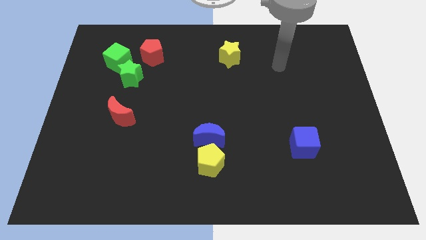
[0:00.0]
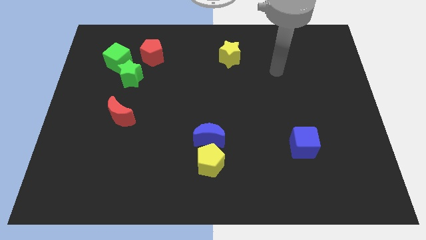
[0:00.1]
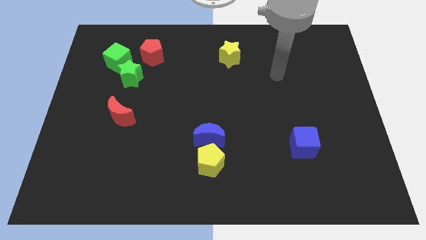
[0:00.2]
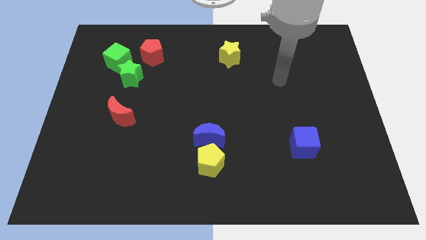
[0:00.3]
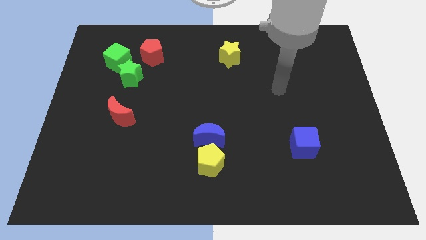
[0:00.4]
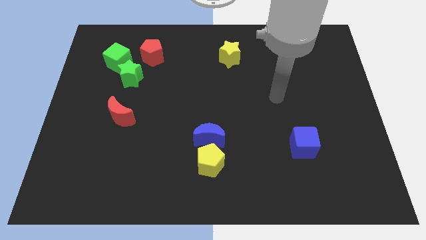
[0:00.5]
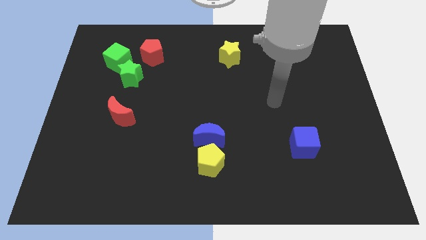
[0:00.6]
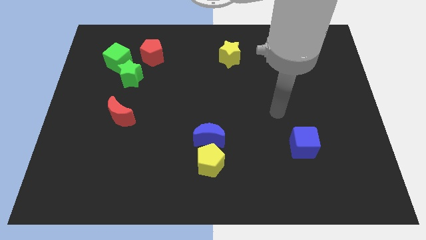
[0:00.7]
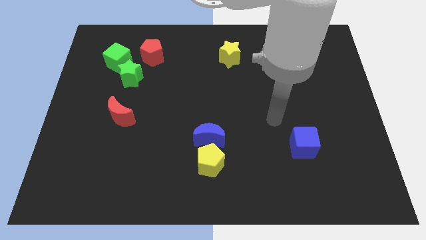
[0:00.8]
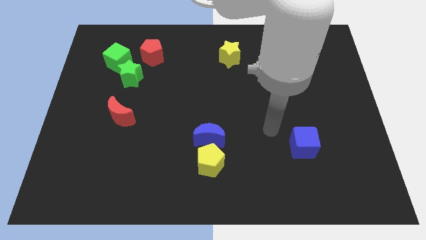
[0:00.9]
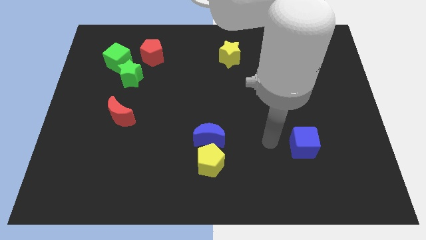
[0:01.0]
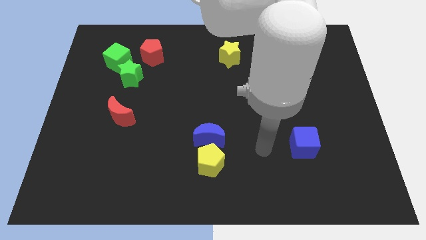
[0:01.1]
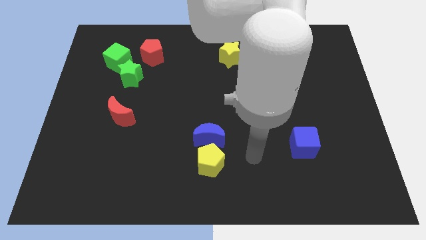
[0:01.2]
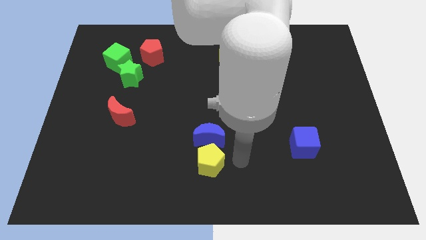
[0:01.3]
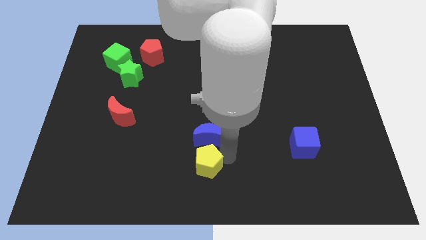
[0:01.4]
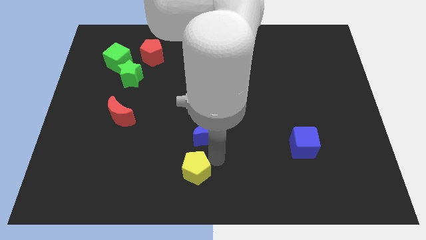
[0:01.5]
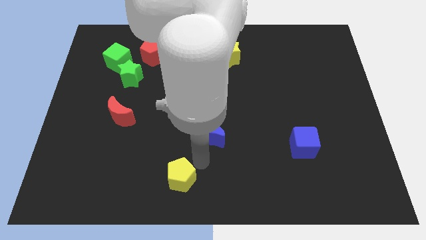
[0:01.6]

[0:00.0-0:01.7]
separate the blue moon from the yellow pentagon

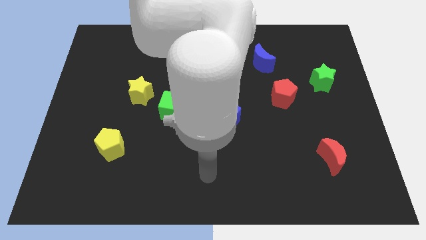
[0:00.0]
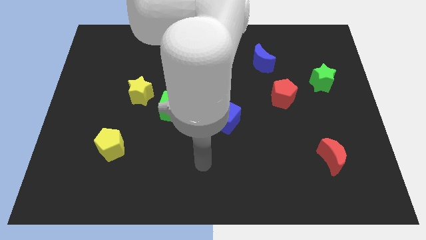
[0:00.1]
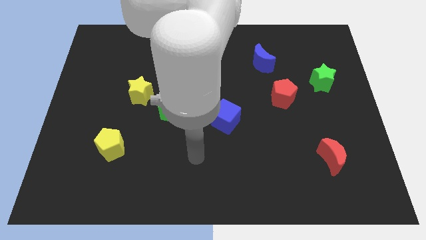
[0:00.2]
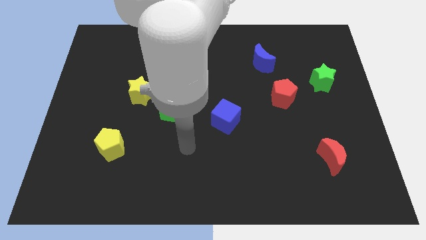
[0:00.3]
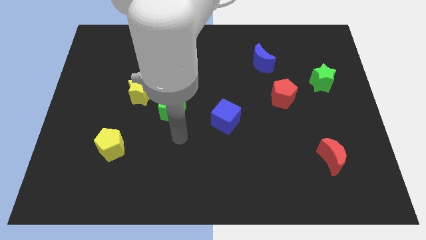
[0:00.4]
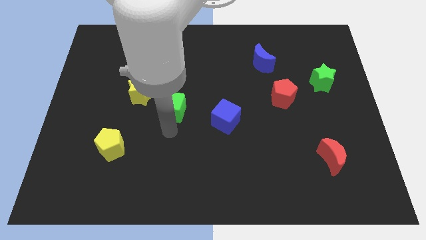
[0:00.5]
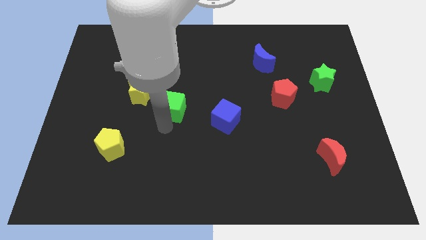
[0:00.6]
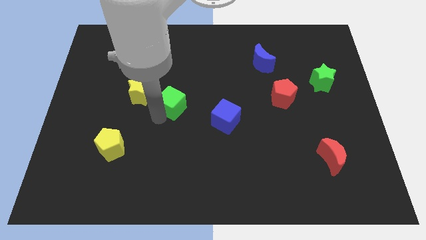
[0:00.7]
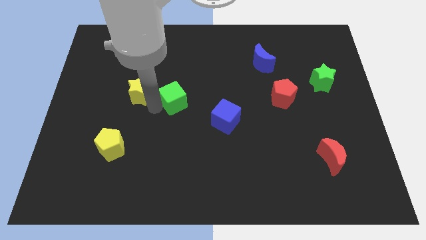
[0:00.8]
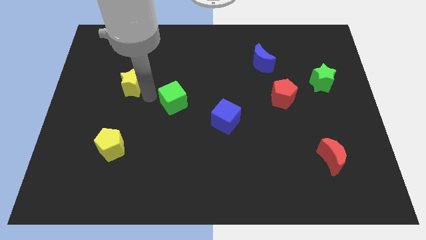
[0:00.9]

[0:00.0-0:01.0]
pull the green cube apart from the yellow star

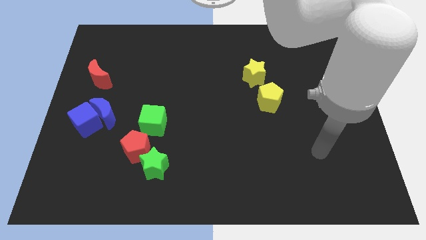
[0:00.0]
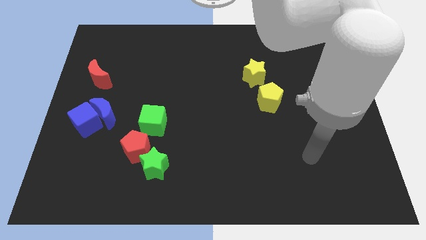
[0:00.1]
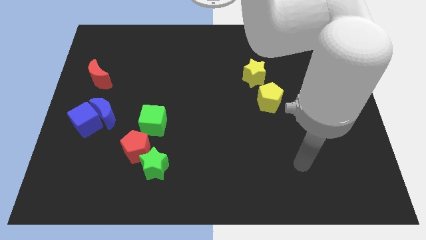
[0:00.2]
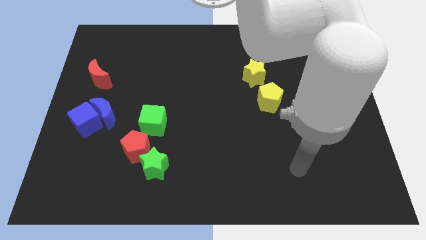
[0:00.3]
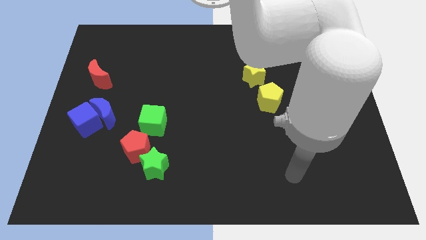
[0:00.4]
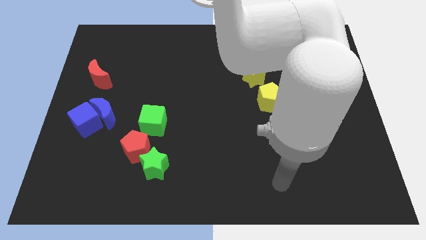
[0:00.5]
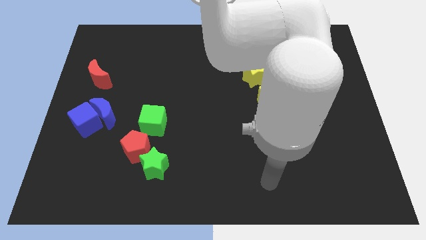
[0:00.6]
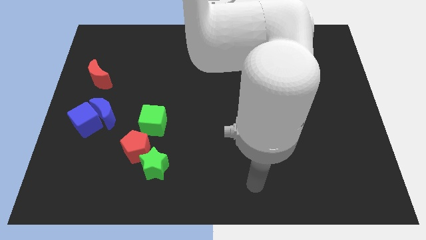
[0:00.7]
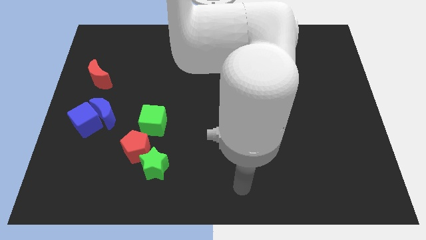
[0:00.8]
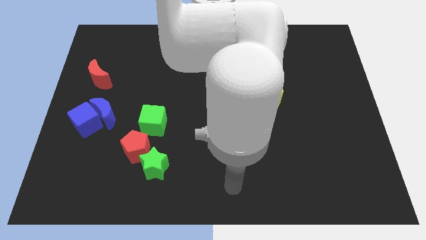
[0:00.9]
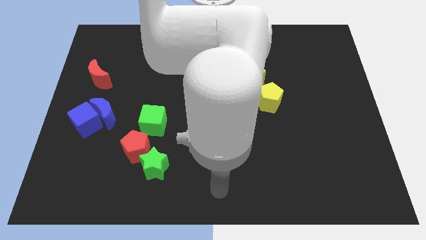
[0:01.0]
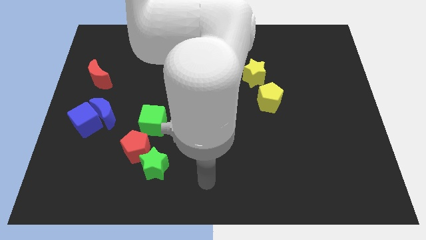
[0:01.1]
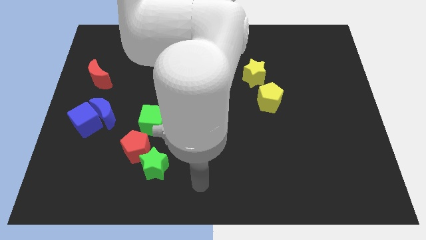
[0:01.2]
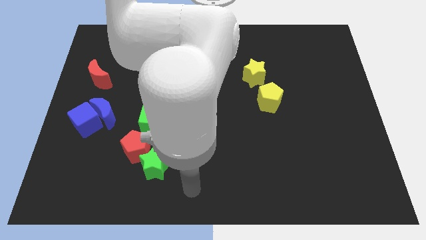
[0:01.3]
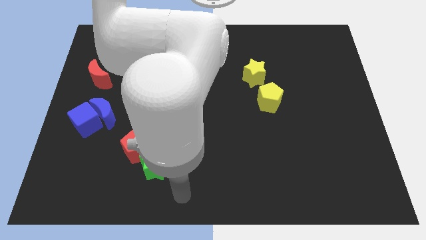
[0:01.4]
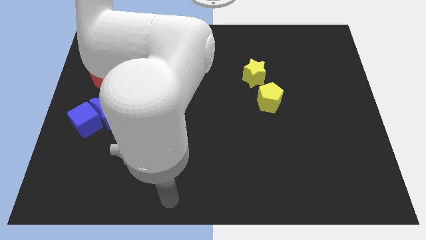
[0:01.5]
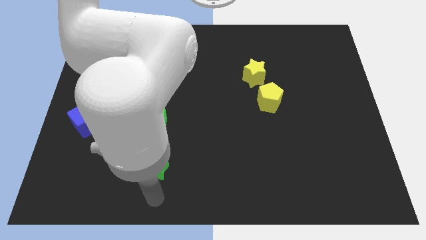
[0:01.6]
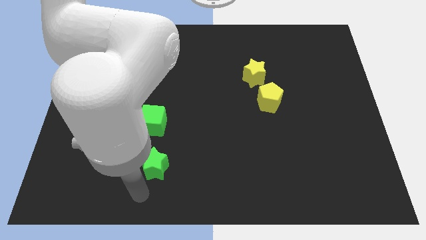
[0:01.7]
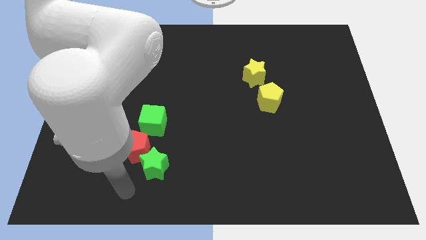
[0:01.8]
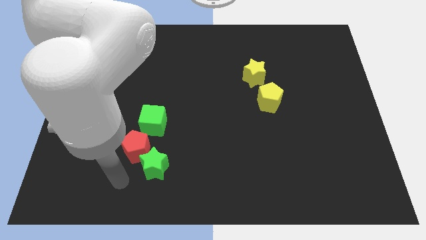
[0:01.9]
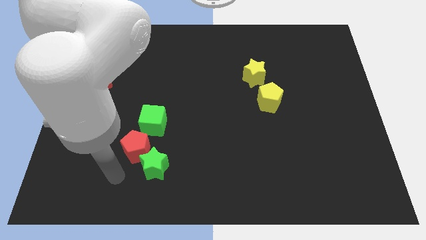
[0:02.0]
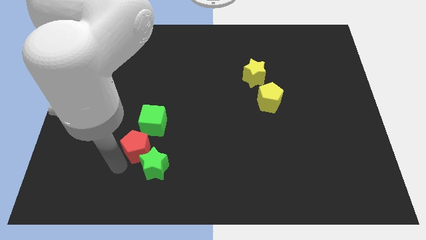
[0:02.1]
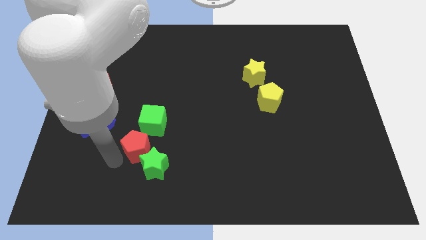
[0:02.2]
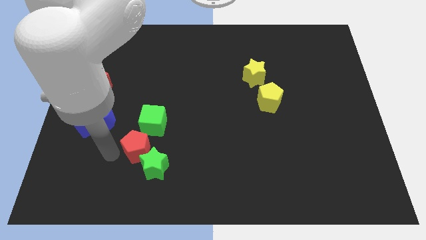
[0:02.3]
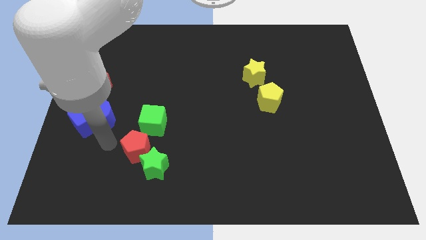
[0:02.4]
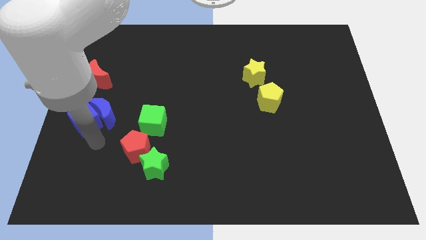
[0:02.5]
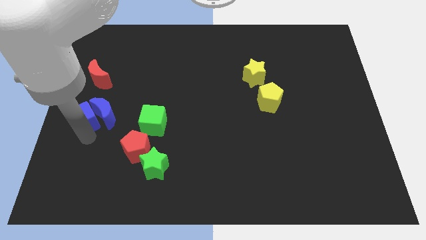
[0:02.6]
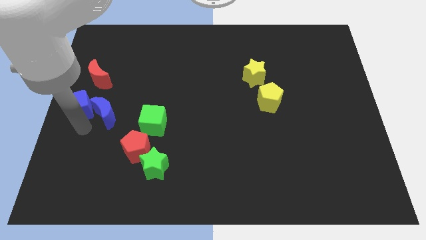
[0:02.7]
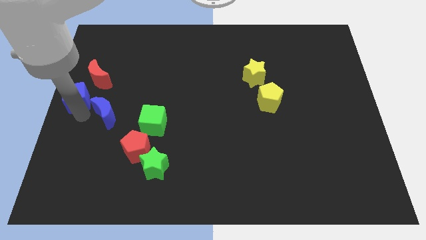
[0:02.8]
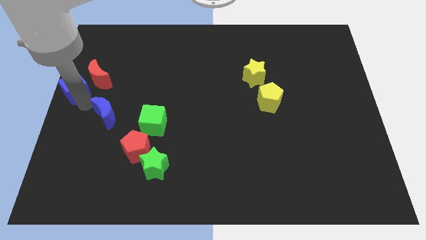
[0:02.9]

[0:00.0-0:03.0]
pull the blue moon apart from the blue cube

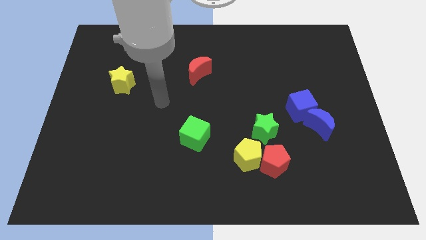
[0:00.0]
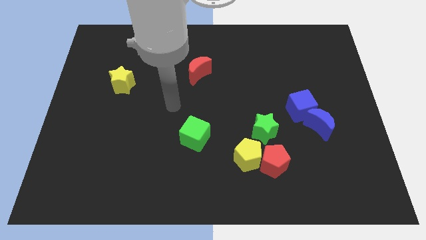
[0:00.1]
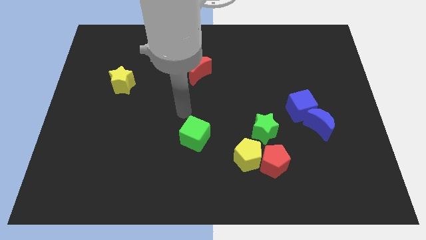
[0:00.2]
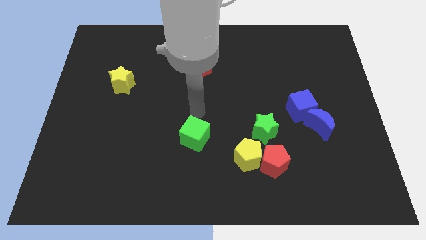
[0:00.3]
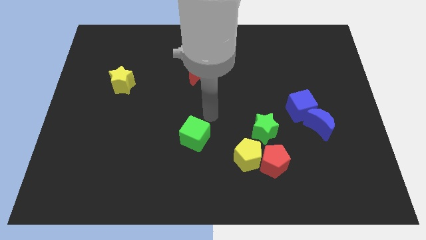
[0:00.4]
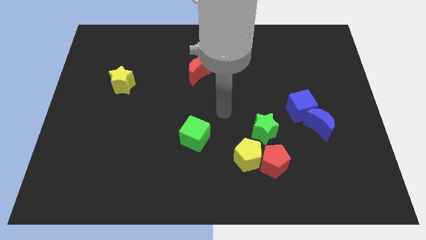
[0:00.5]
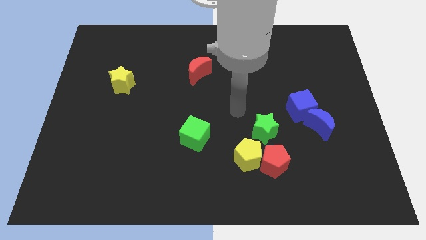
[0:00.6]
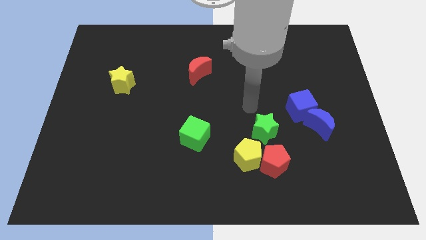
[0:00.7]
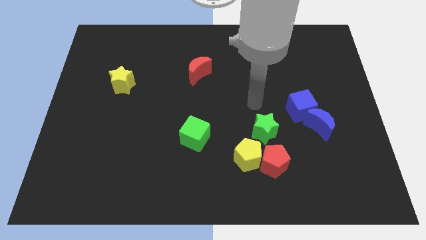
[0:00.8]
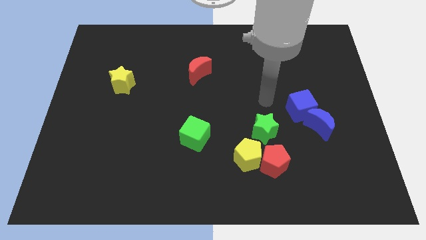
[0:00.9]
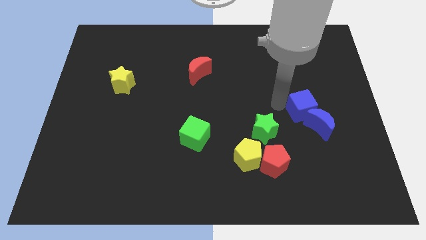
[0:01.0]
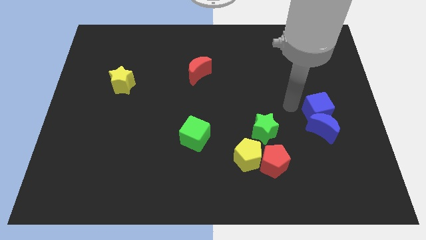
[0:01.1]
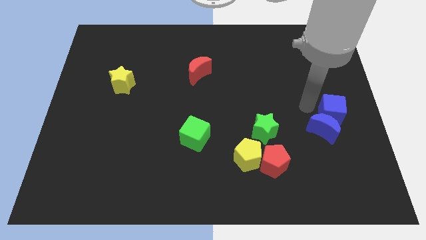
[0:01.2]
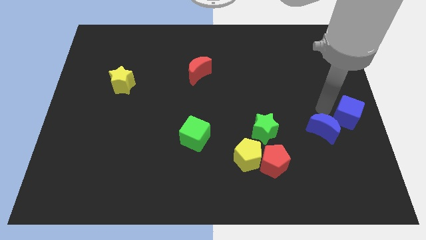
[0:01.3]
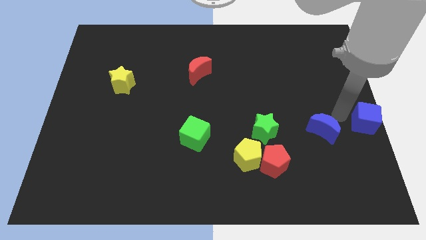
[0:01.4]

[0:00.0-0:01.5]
move the blue moon away from the blue cube

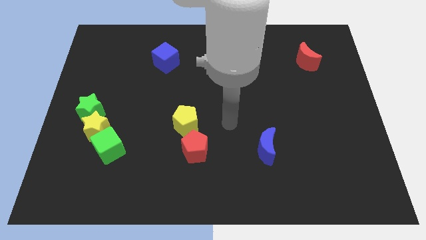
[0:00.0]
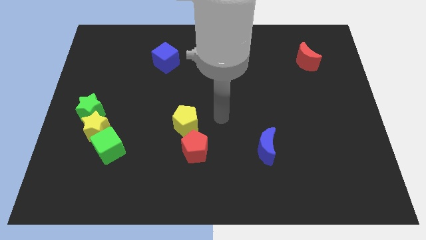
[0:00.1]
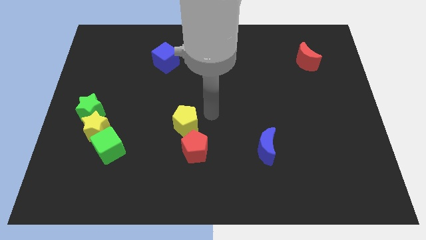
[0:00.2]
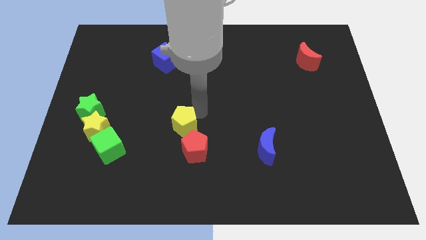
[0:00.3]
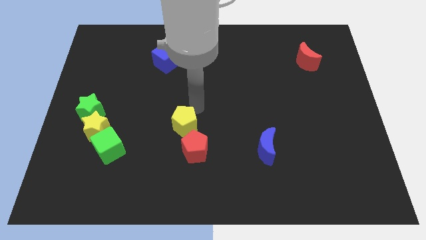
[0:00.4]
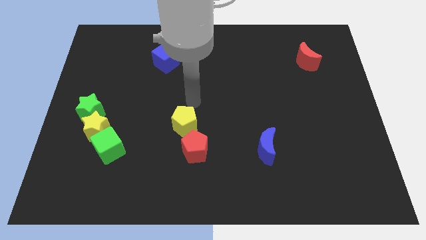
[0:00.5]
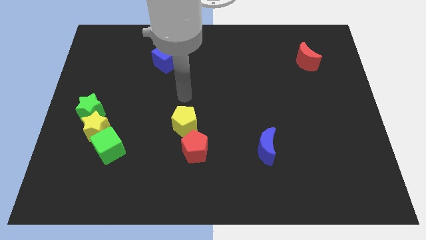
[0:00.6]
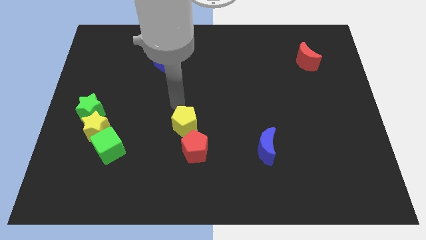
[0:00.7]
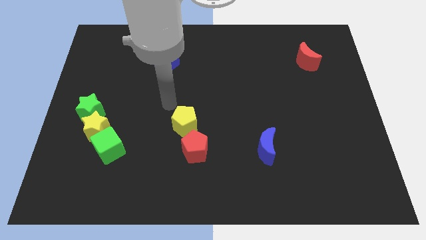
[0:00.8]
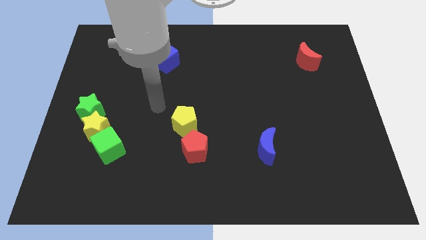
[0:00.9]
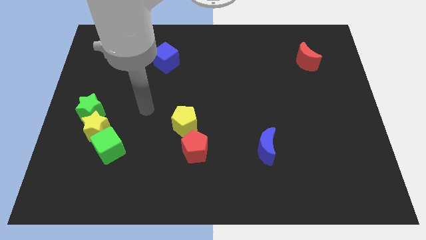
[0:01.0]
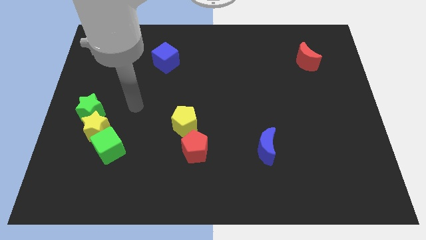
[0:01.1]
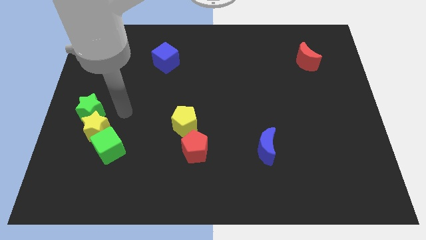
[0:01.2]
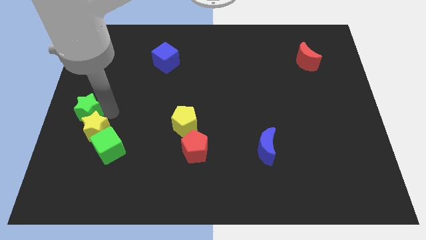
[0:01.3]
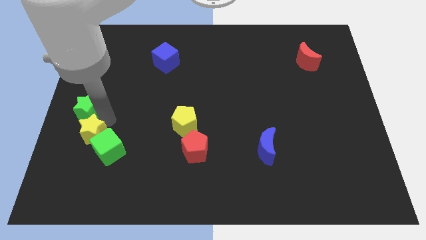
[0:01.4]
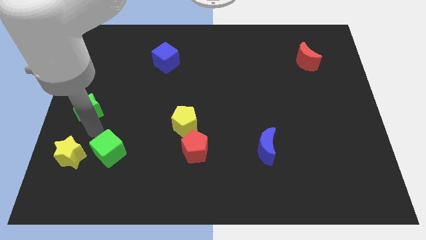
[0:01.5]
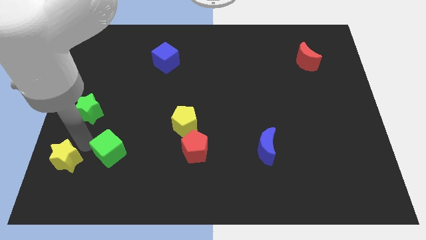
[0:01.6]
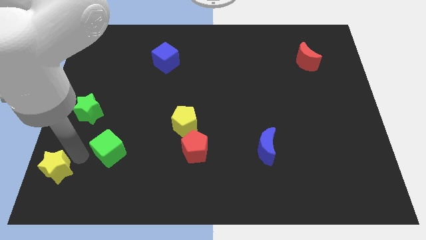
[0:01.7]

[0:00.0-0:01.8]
separate the green cube from the yellow star

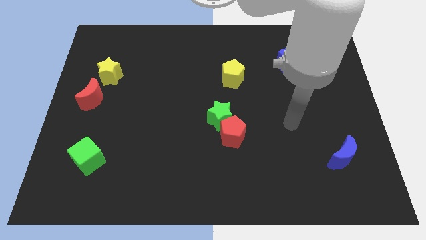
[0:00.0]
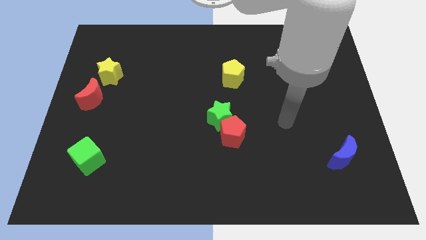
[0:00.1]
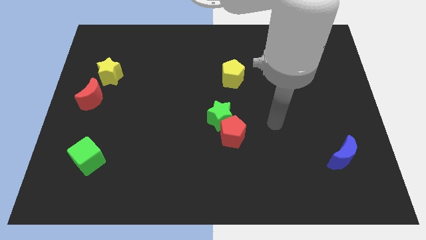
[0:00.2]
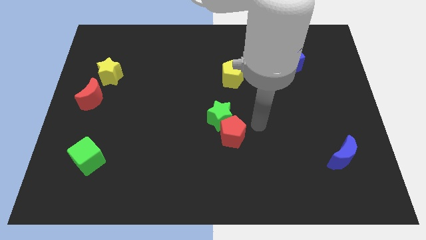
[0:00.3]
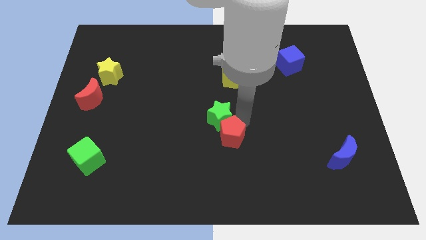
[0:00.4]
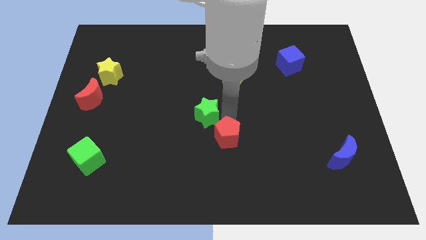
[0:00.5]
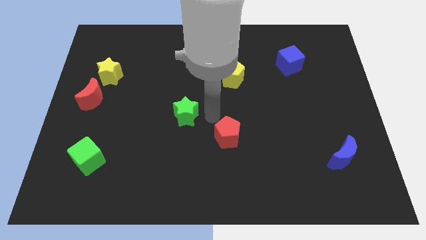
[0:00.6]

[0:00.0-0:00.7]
separate the red pentagon from the green star
